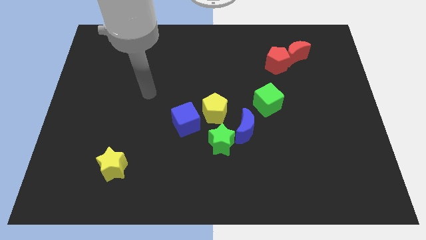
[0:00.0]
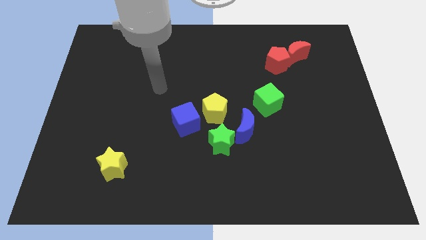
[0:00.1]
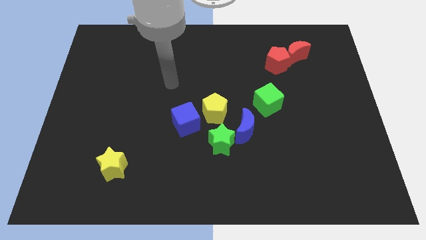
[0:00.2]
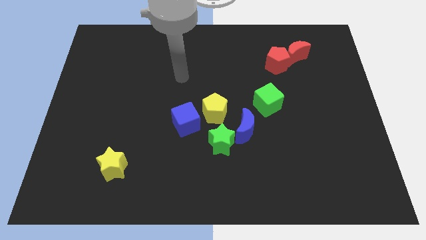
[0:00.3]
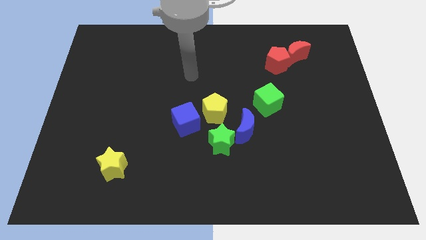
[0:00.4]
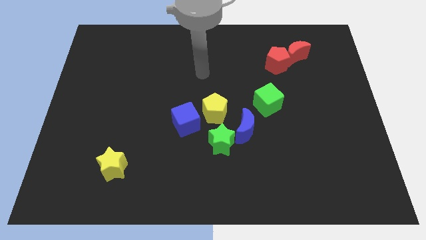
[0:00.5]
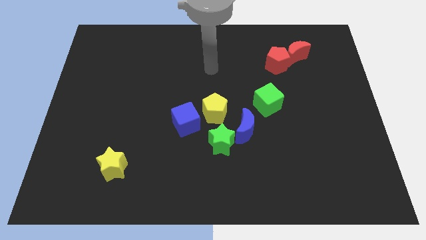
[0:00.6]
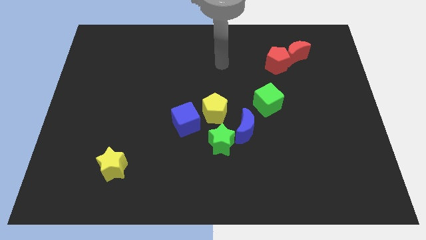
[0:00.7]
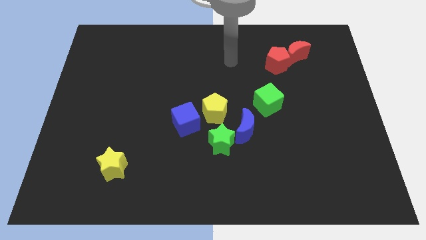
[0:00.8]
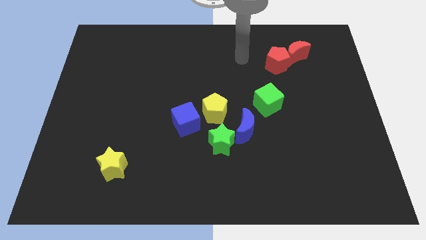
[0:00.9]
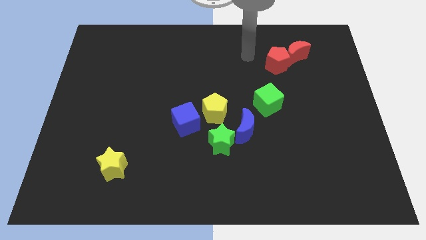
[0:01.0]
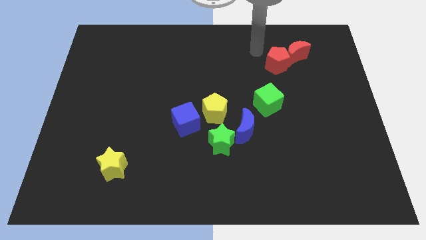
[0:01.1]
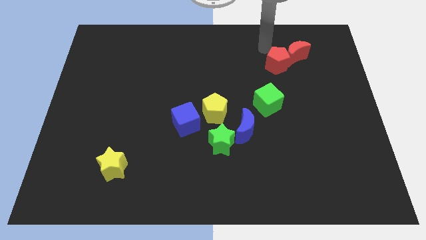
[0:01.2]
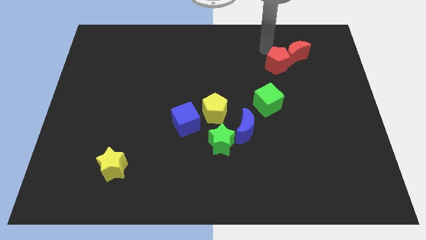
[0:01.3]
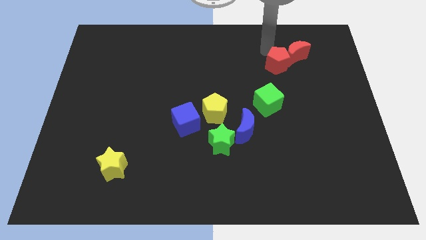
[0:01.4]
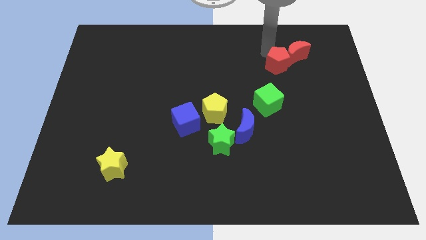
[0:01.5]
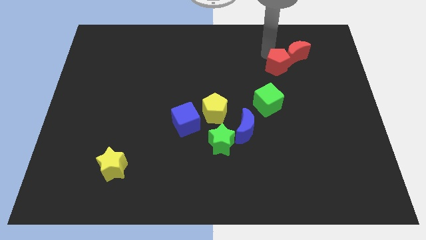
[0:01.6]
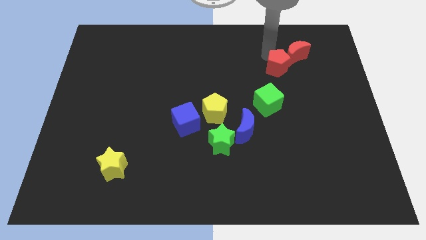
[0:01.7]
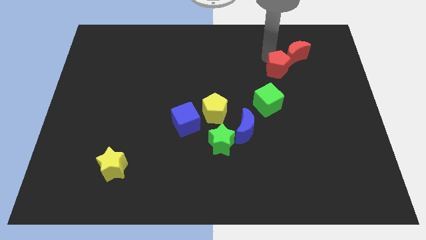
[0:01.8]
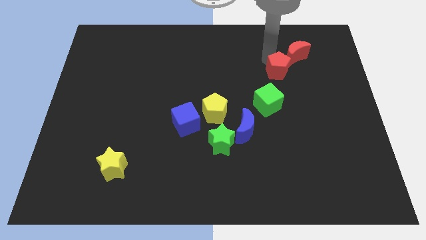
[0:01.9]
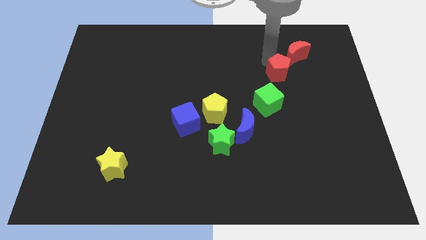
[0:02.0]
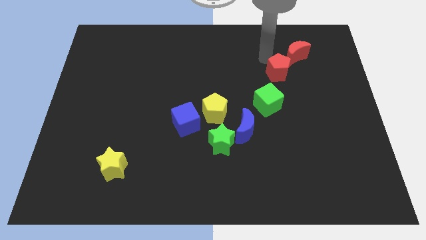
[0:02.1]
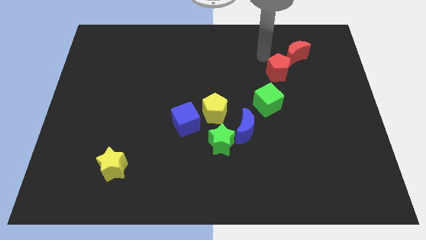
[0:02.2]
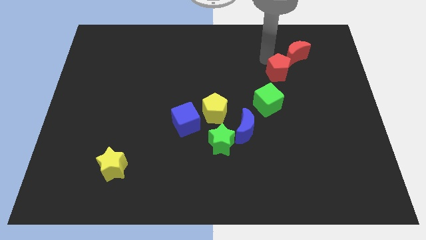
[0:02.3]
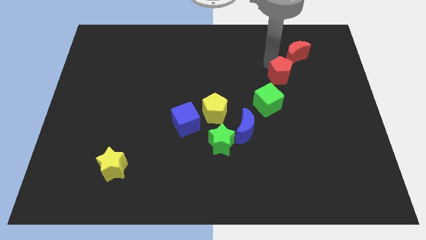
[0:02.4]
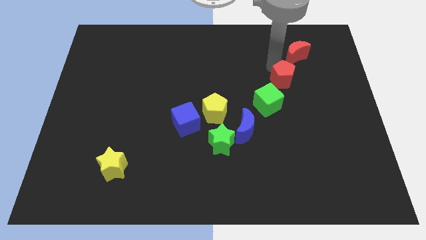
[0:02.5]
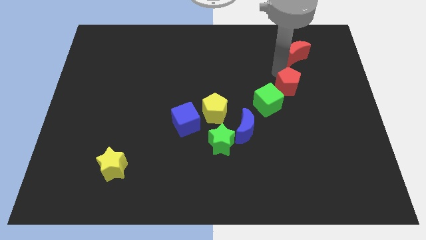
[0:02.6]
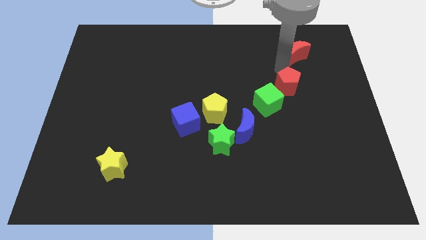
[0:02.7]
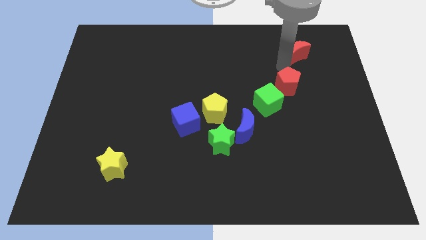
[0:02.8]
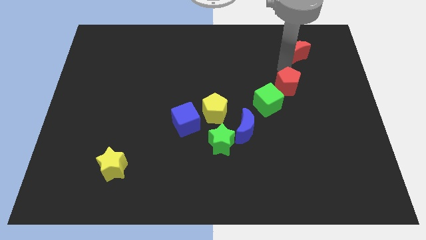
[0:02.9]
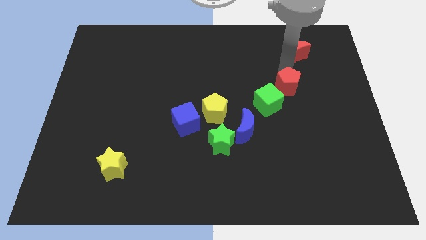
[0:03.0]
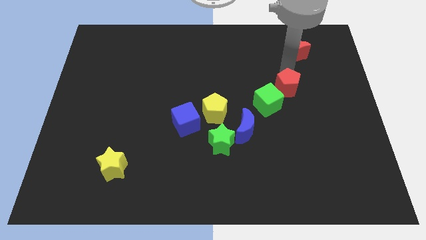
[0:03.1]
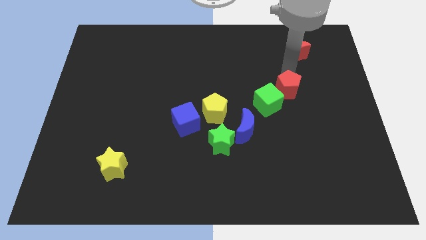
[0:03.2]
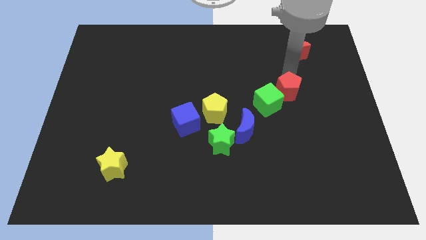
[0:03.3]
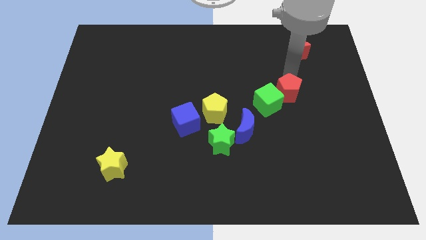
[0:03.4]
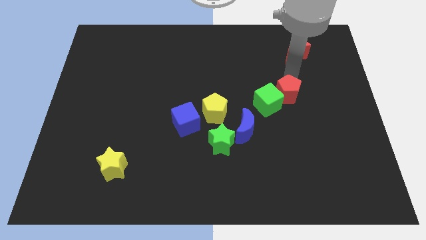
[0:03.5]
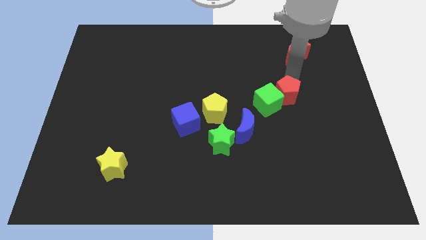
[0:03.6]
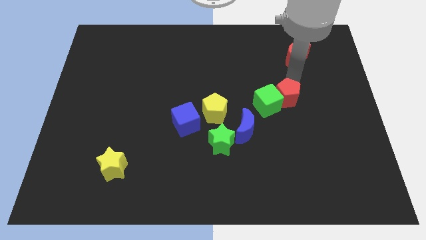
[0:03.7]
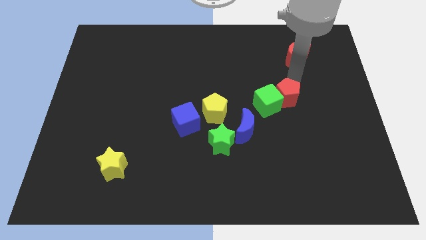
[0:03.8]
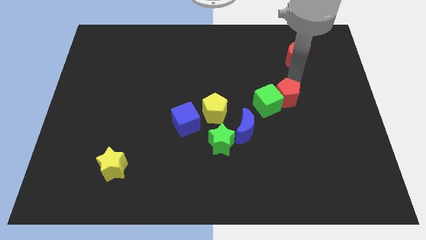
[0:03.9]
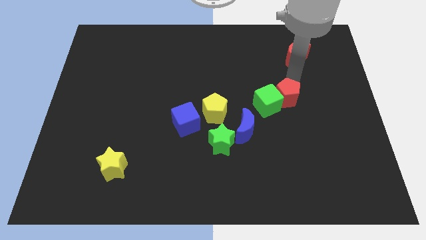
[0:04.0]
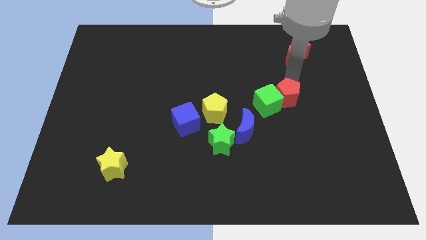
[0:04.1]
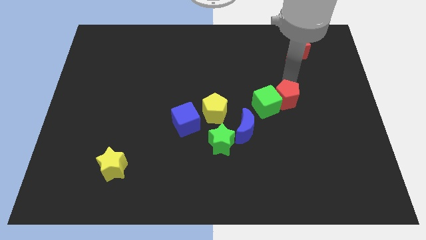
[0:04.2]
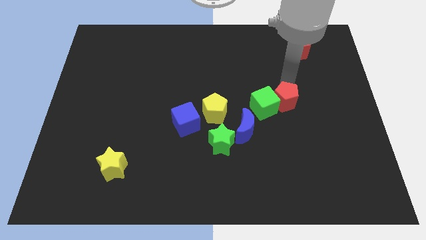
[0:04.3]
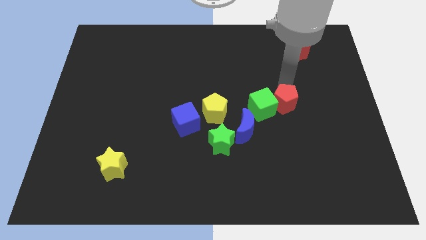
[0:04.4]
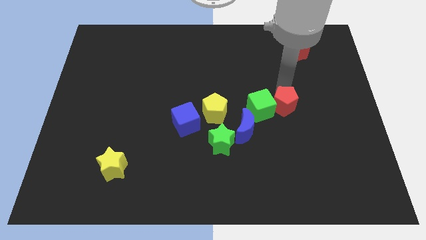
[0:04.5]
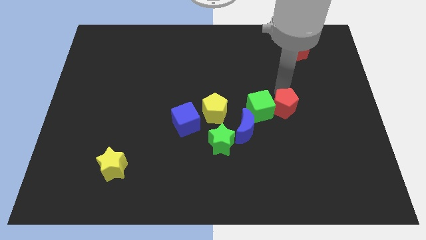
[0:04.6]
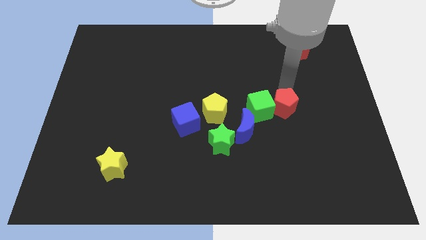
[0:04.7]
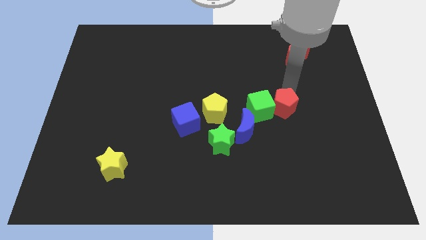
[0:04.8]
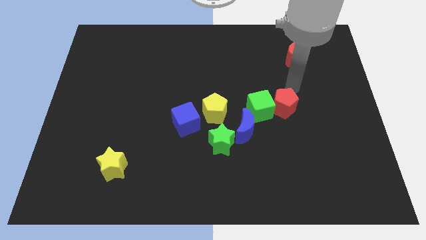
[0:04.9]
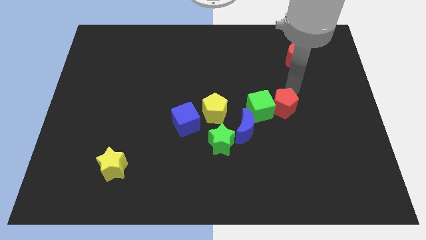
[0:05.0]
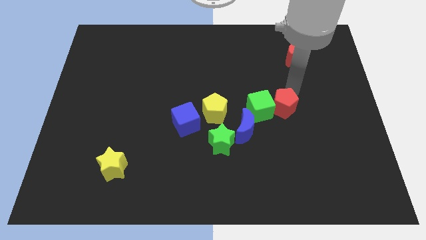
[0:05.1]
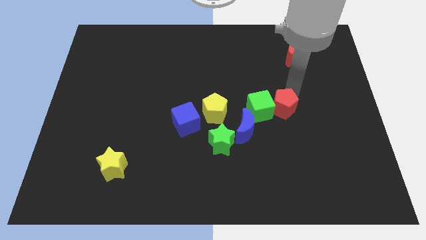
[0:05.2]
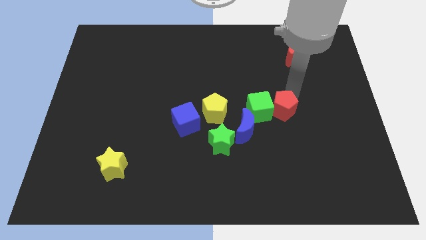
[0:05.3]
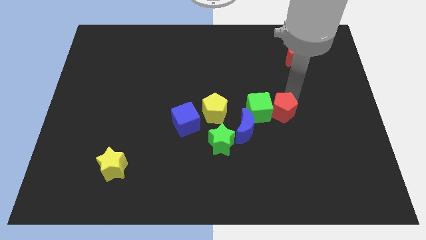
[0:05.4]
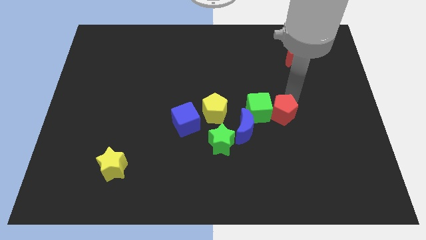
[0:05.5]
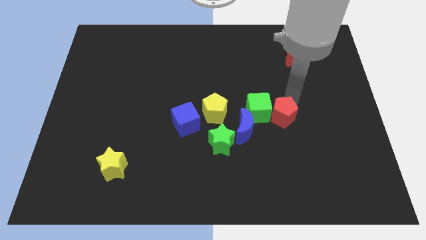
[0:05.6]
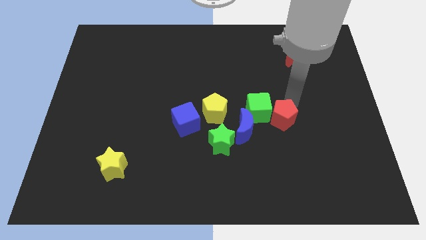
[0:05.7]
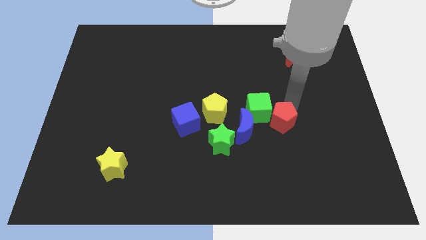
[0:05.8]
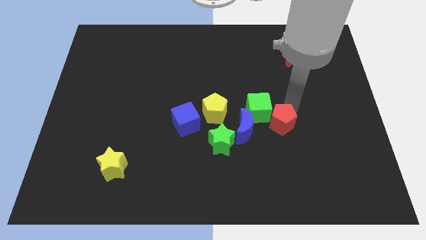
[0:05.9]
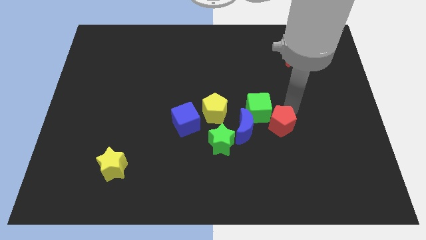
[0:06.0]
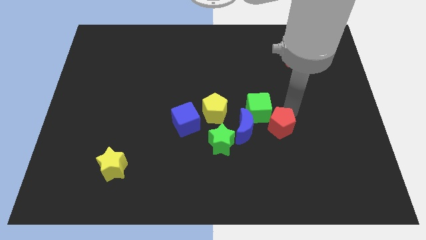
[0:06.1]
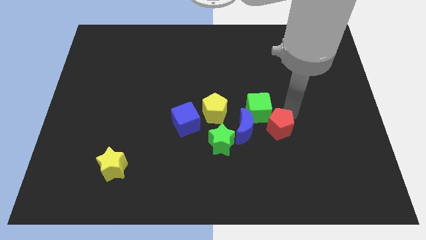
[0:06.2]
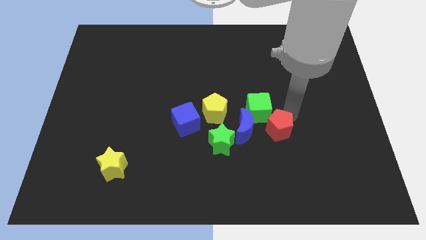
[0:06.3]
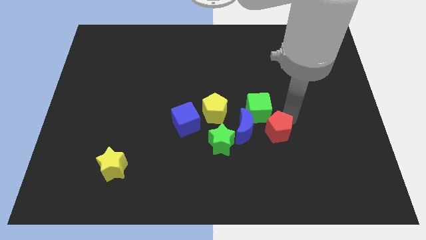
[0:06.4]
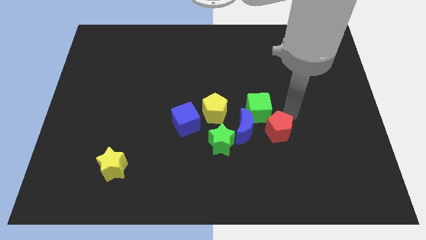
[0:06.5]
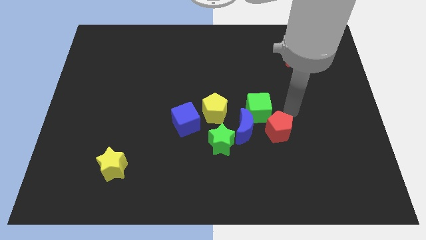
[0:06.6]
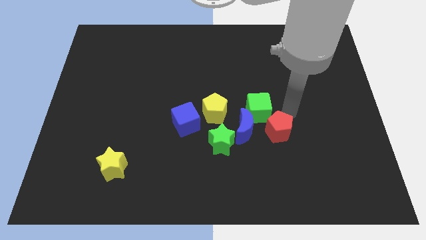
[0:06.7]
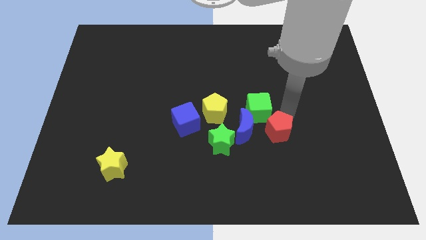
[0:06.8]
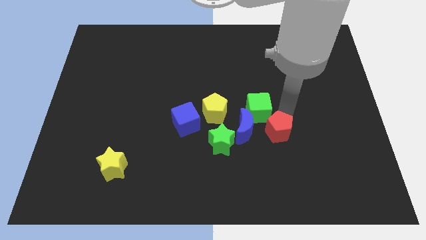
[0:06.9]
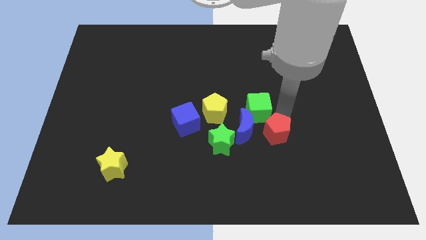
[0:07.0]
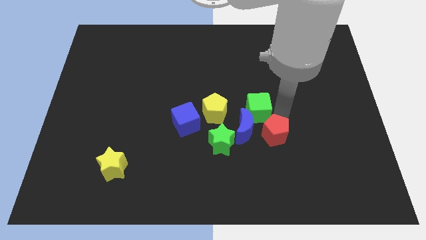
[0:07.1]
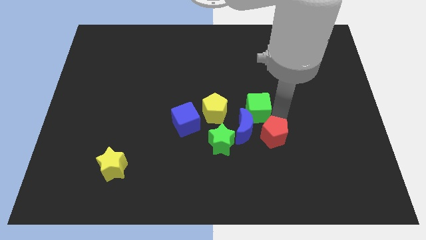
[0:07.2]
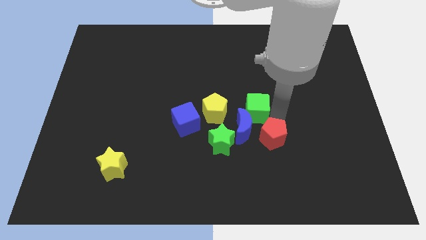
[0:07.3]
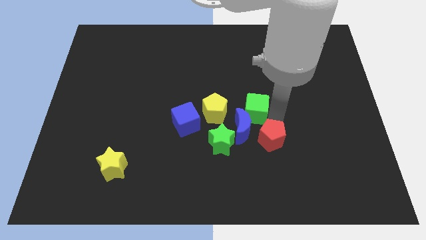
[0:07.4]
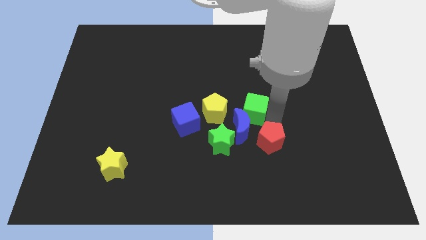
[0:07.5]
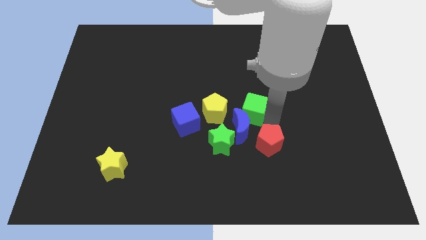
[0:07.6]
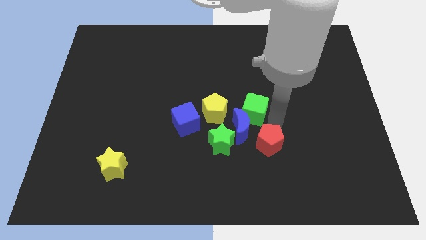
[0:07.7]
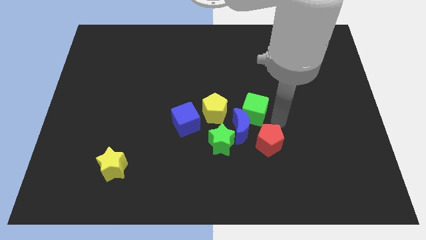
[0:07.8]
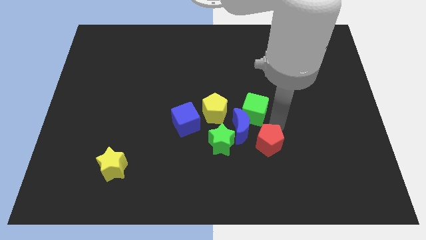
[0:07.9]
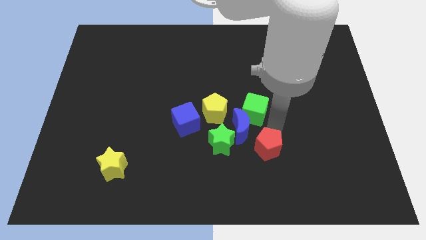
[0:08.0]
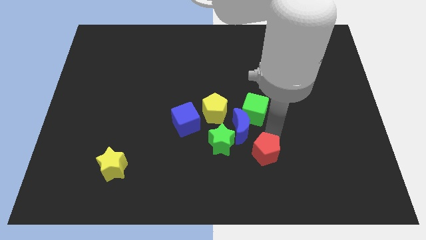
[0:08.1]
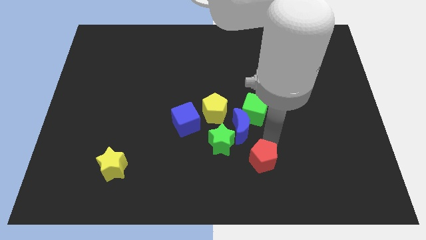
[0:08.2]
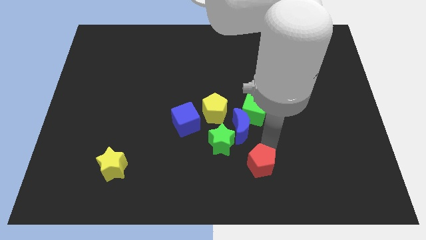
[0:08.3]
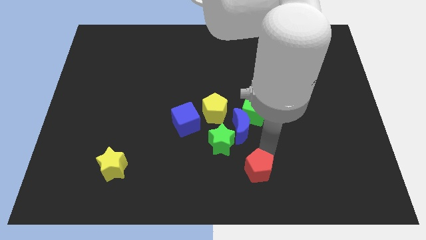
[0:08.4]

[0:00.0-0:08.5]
push the red pentagon to the bottom
